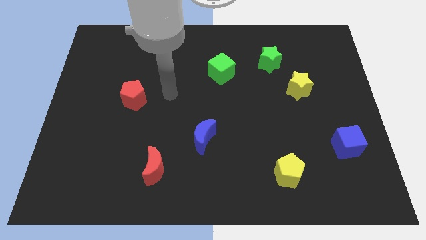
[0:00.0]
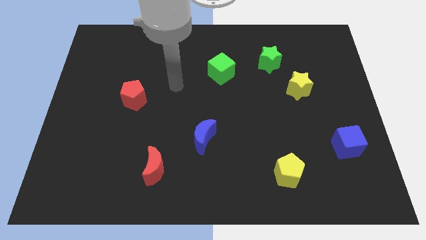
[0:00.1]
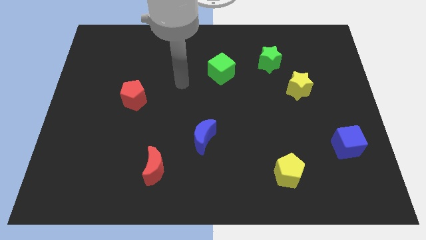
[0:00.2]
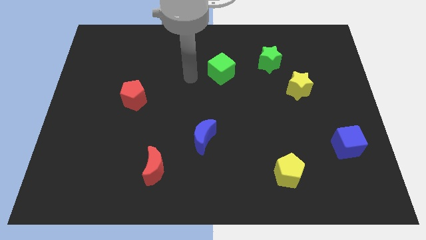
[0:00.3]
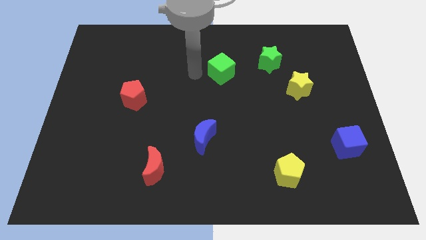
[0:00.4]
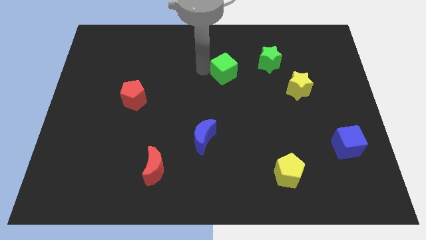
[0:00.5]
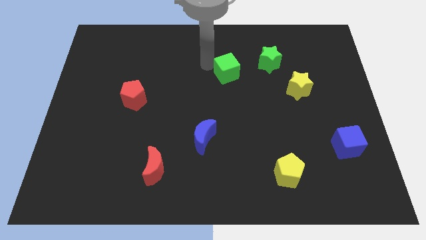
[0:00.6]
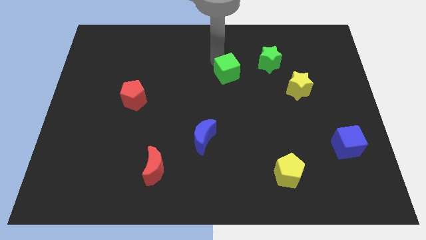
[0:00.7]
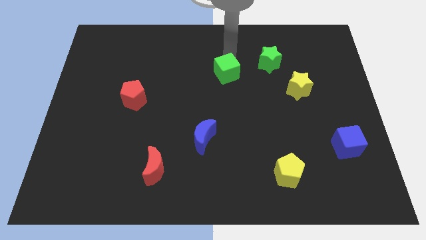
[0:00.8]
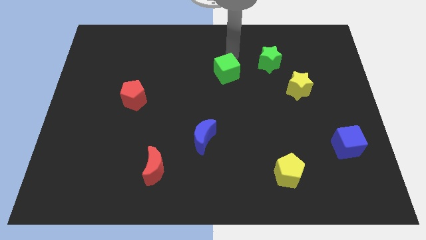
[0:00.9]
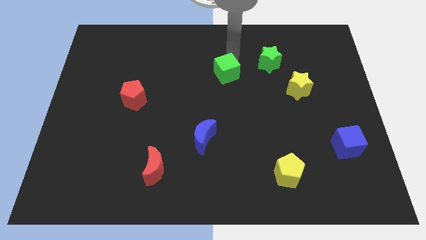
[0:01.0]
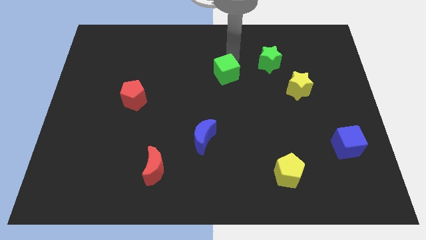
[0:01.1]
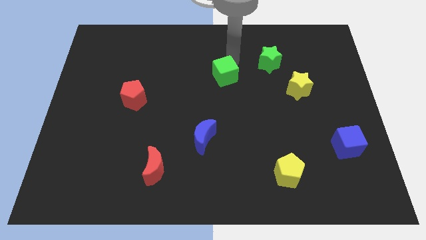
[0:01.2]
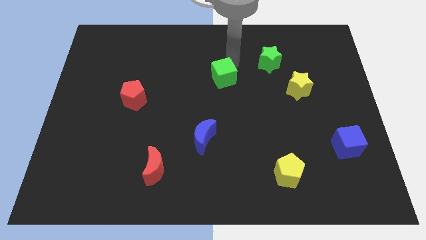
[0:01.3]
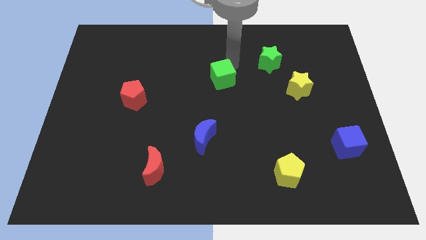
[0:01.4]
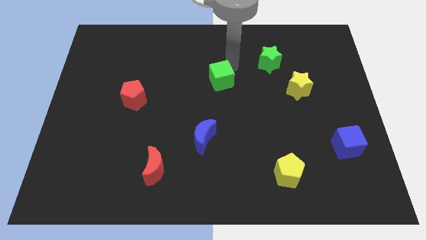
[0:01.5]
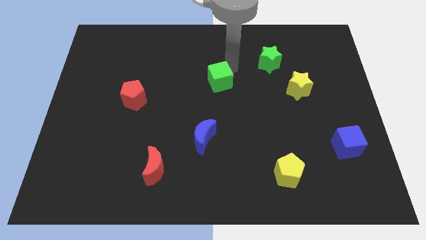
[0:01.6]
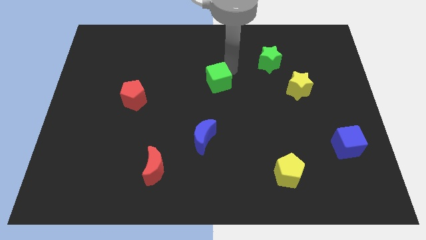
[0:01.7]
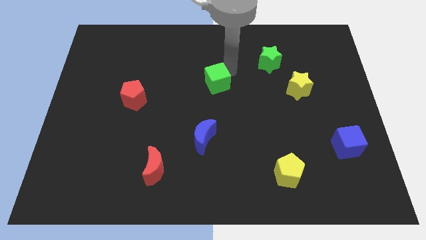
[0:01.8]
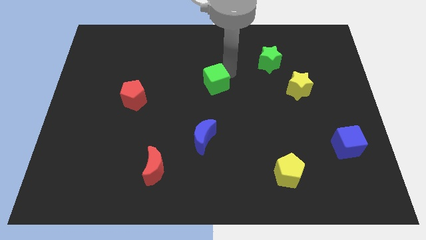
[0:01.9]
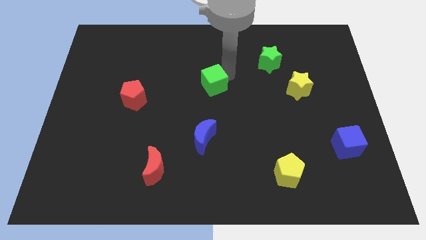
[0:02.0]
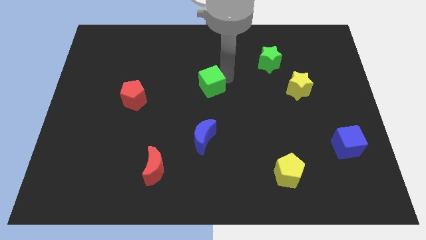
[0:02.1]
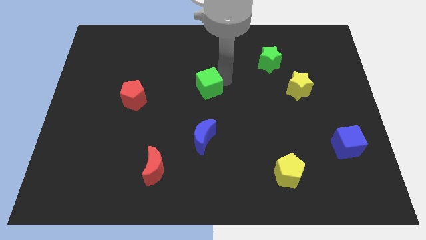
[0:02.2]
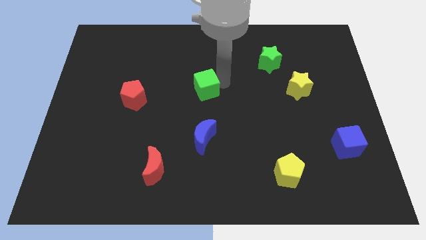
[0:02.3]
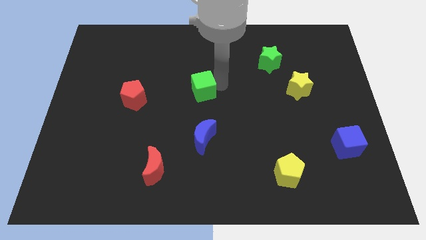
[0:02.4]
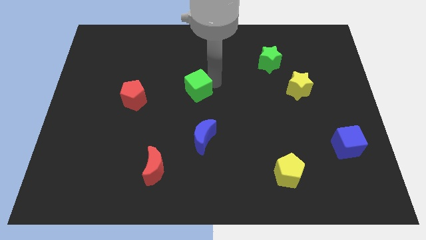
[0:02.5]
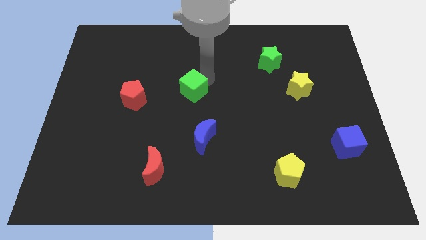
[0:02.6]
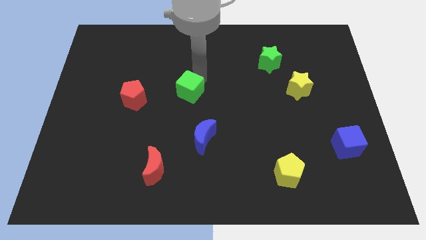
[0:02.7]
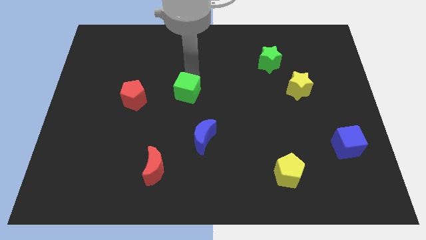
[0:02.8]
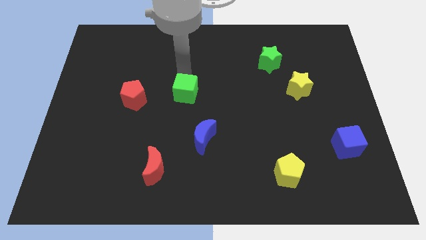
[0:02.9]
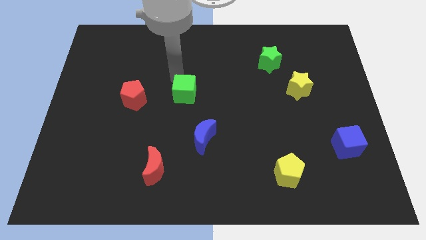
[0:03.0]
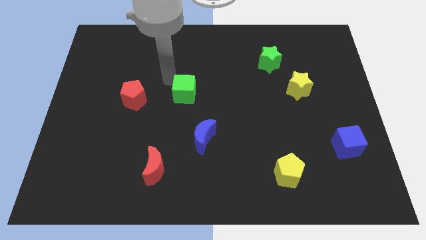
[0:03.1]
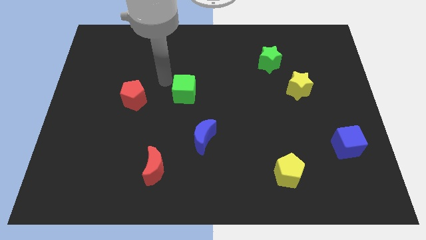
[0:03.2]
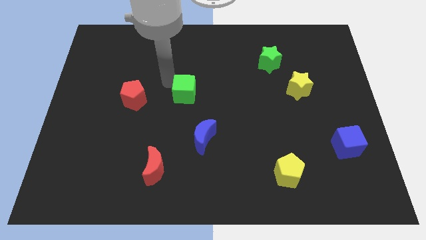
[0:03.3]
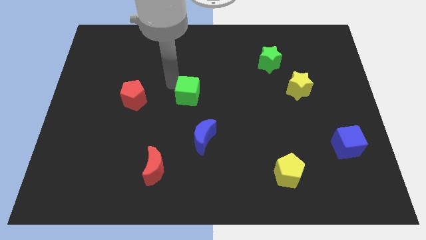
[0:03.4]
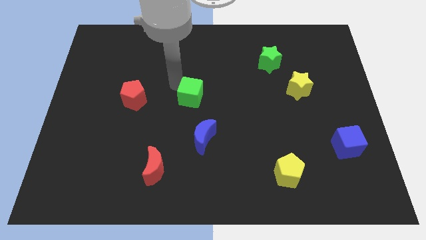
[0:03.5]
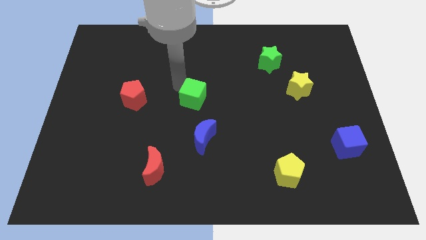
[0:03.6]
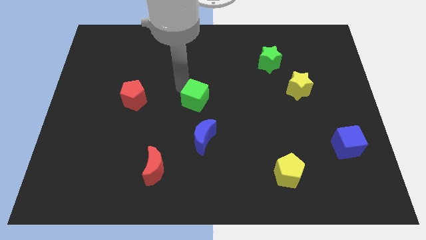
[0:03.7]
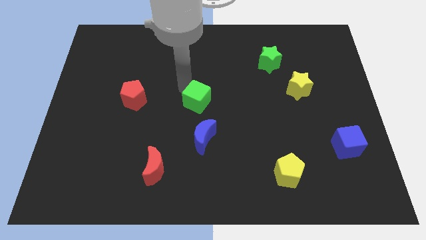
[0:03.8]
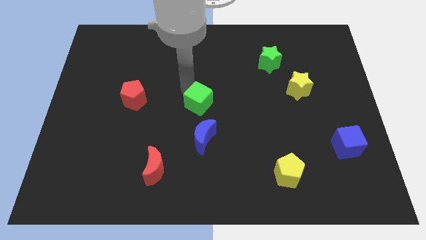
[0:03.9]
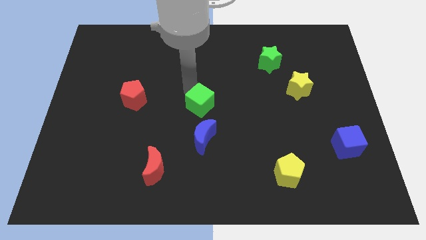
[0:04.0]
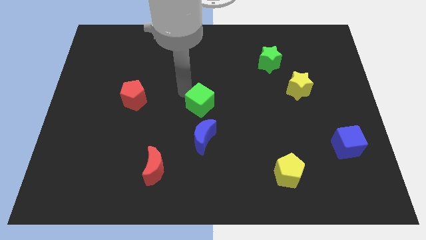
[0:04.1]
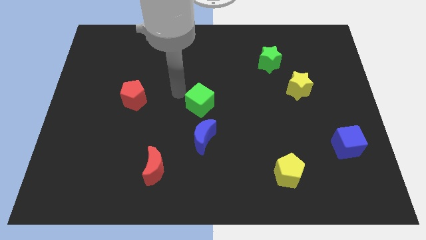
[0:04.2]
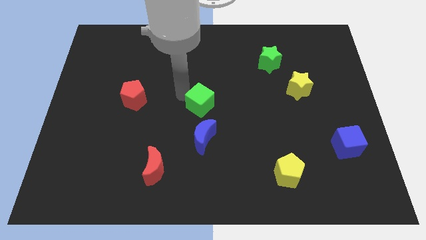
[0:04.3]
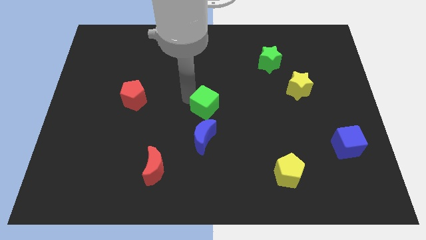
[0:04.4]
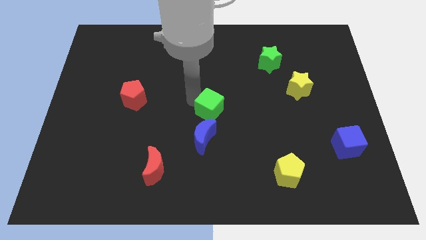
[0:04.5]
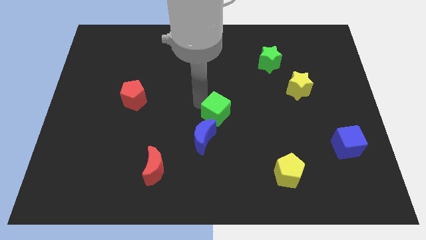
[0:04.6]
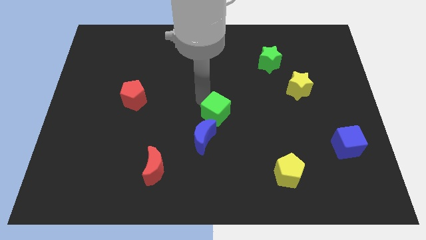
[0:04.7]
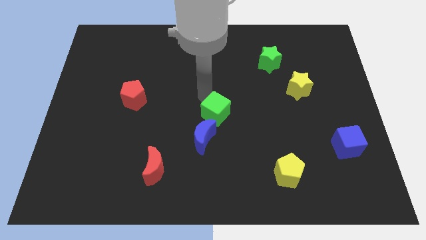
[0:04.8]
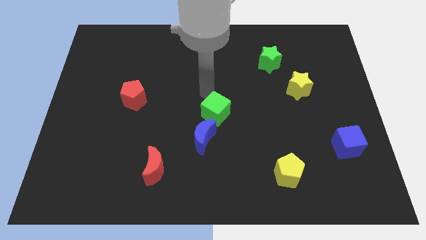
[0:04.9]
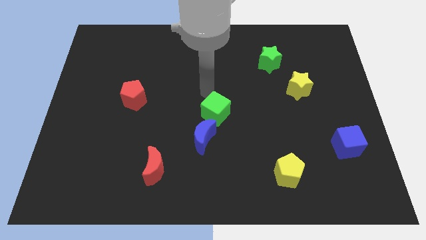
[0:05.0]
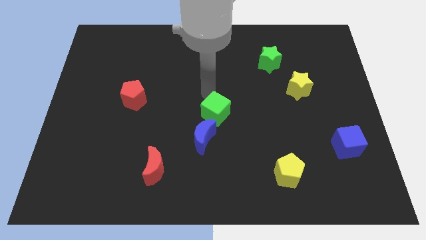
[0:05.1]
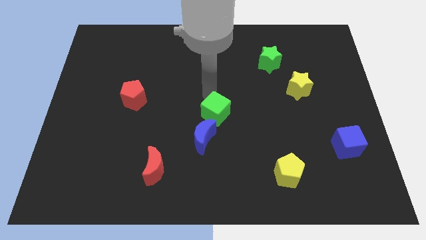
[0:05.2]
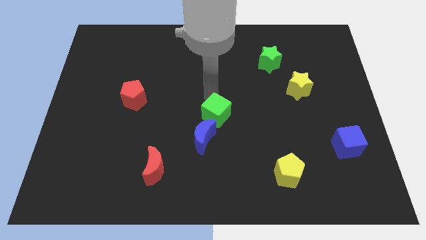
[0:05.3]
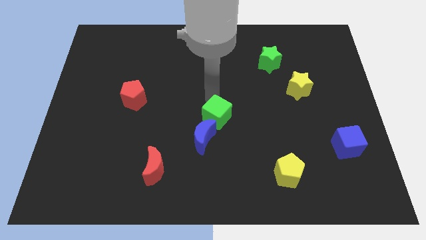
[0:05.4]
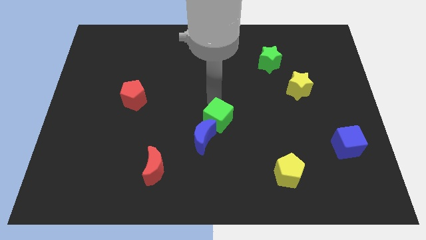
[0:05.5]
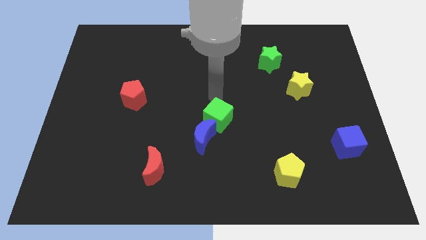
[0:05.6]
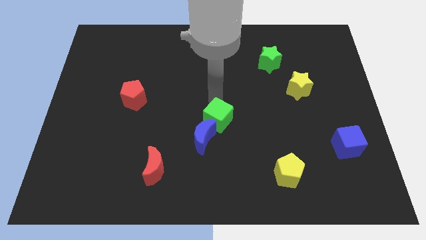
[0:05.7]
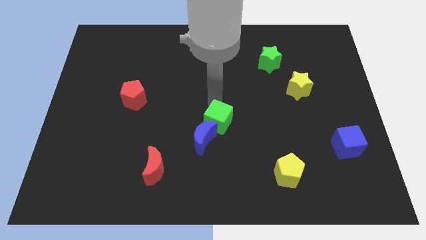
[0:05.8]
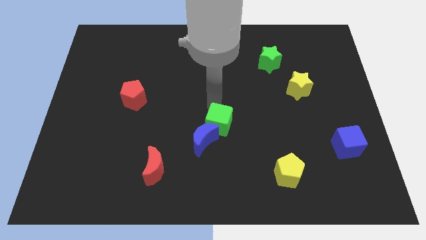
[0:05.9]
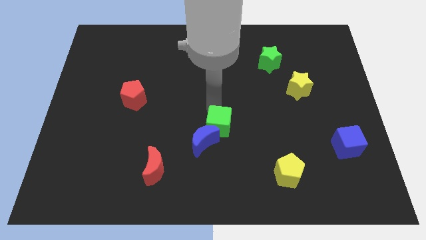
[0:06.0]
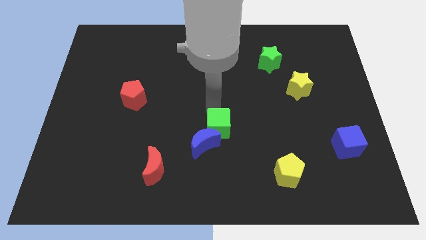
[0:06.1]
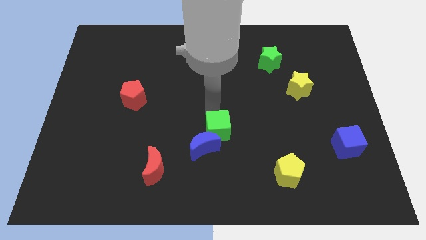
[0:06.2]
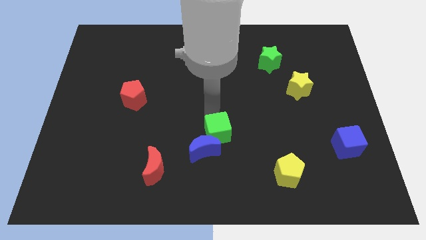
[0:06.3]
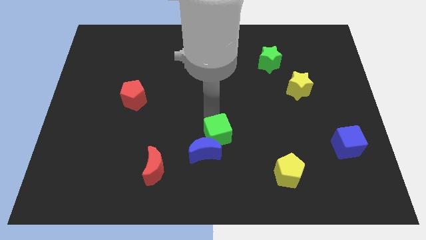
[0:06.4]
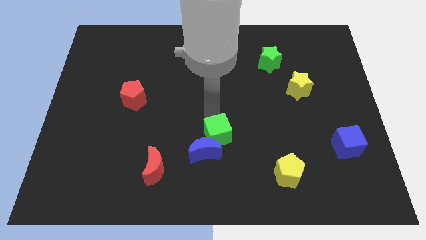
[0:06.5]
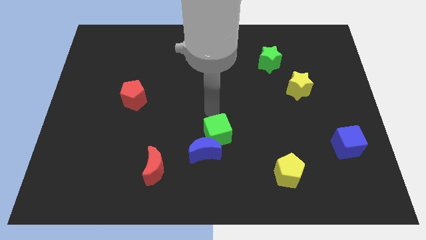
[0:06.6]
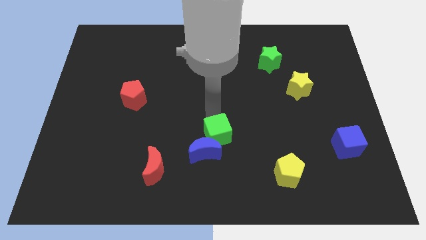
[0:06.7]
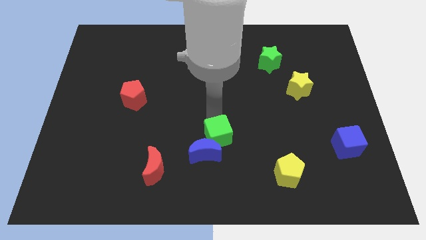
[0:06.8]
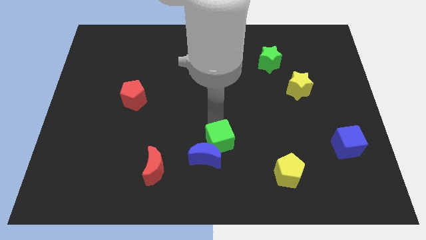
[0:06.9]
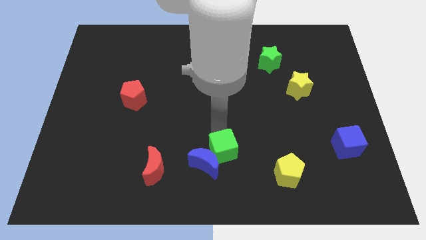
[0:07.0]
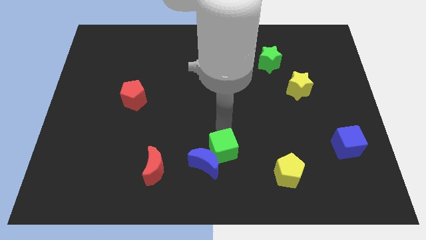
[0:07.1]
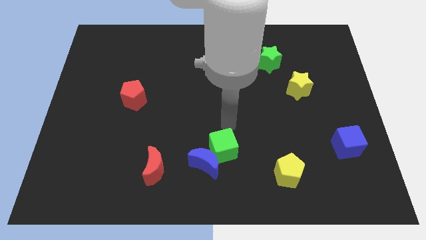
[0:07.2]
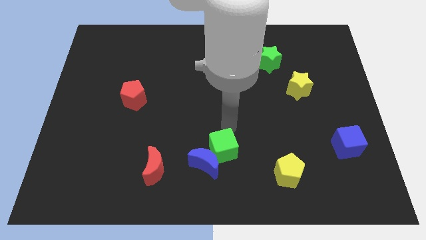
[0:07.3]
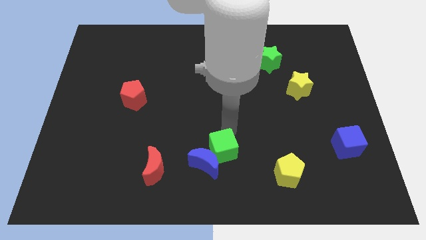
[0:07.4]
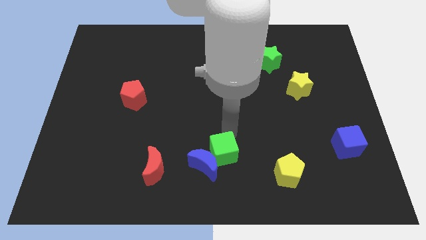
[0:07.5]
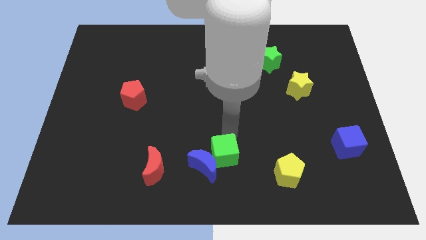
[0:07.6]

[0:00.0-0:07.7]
put the green cube to the bottom
